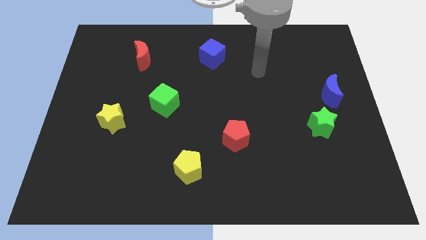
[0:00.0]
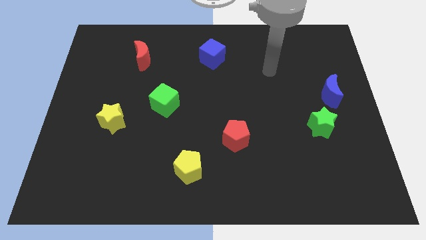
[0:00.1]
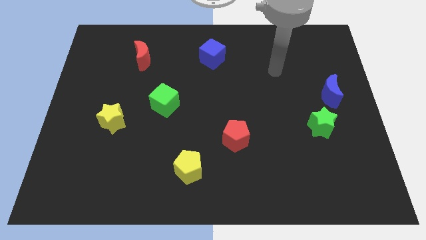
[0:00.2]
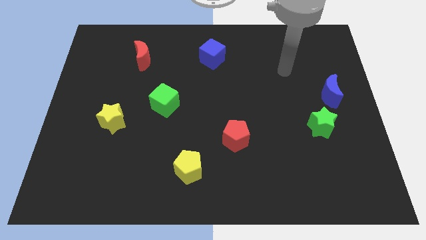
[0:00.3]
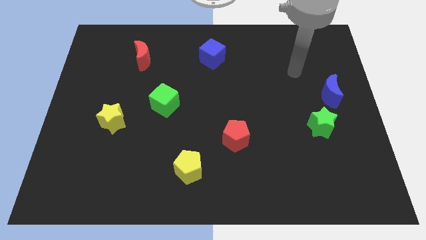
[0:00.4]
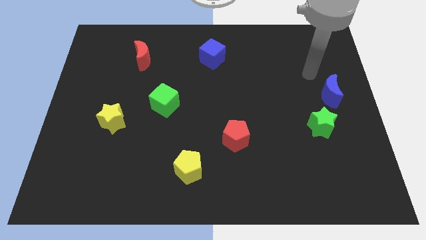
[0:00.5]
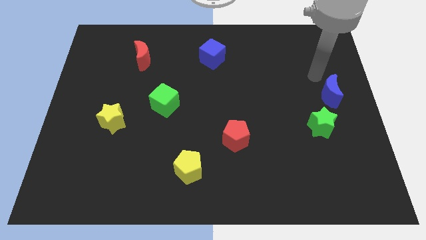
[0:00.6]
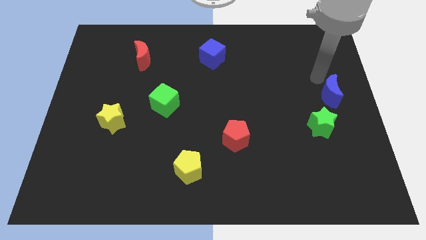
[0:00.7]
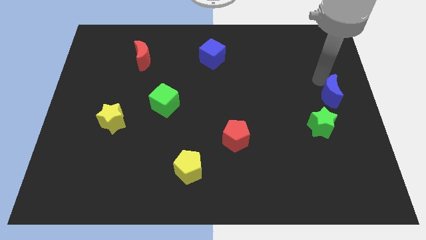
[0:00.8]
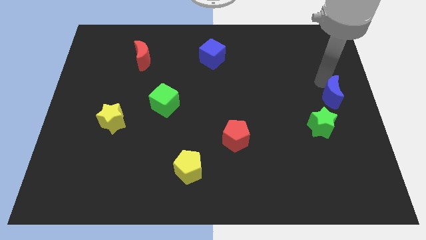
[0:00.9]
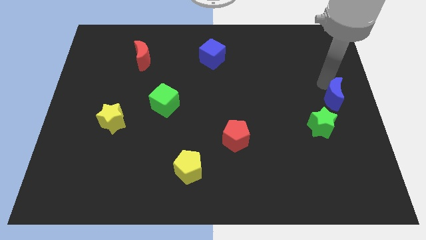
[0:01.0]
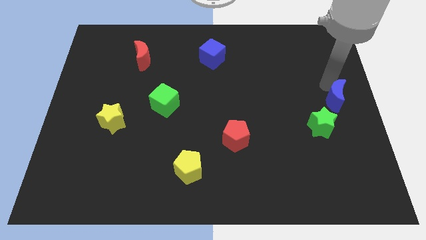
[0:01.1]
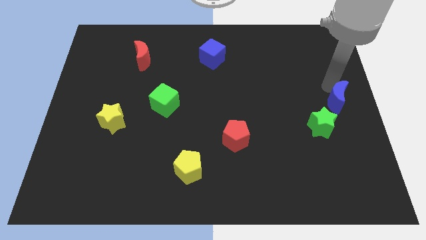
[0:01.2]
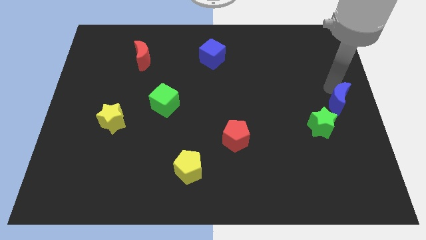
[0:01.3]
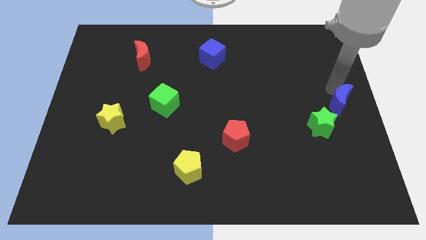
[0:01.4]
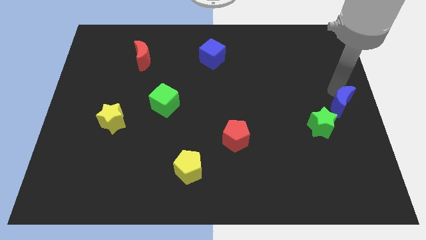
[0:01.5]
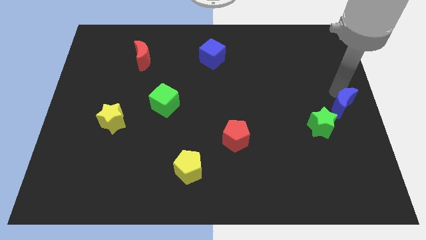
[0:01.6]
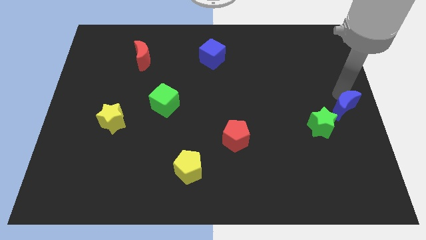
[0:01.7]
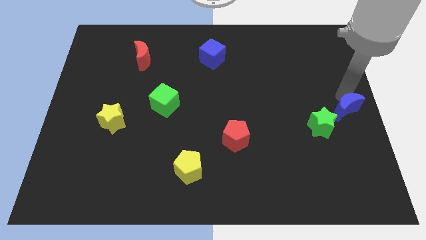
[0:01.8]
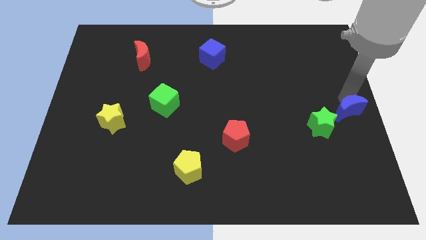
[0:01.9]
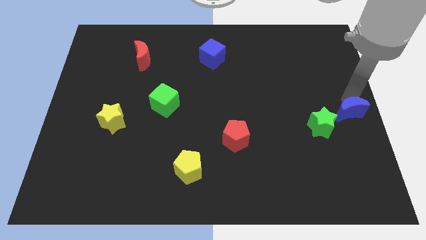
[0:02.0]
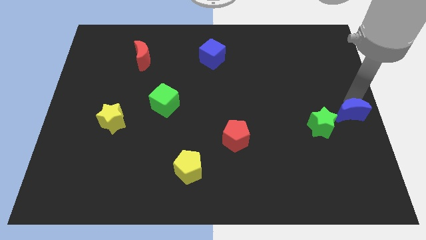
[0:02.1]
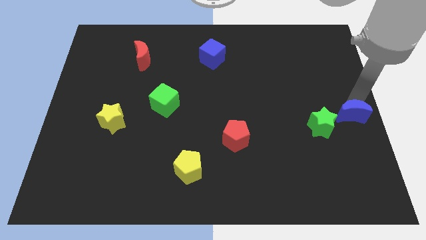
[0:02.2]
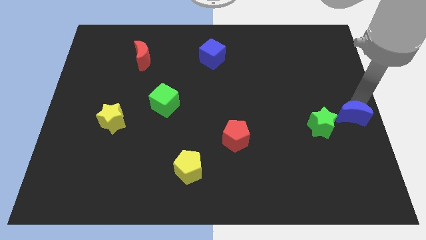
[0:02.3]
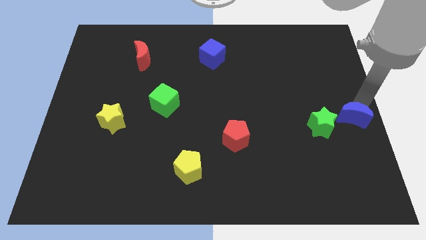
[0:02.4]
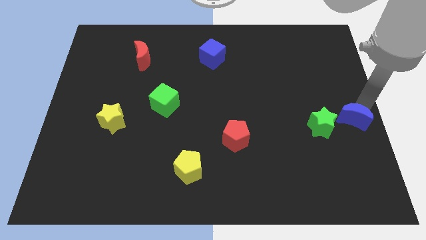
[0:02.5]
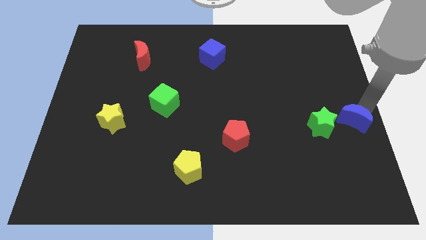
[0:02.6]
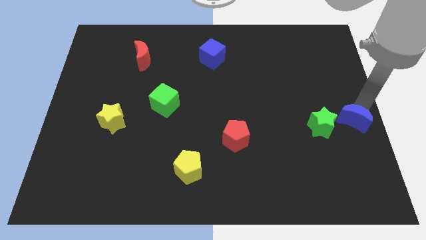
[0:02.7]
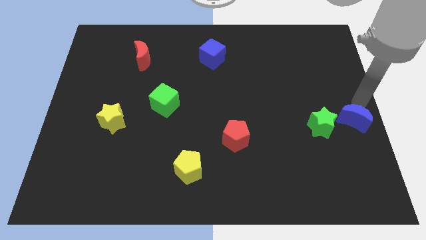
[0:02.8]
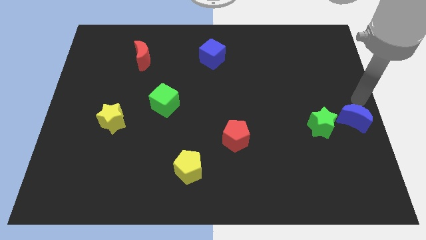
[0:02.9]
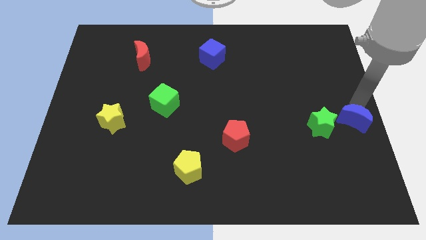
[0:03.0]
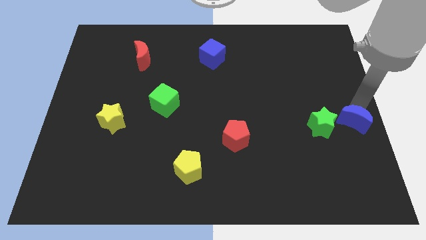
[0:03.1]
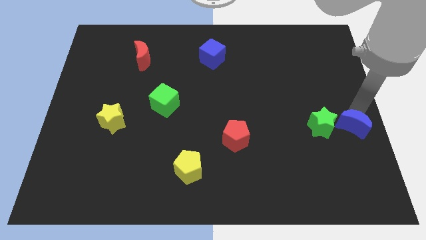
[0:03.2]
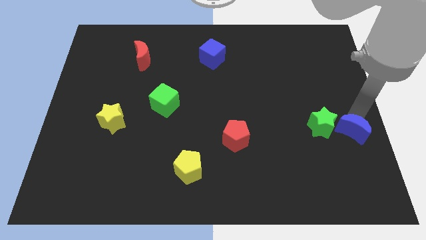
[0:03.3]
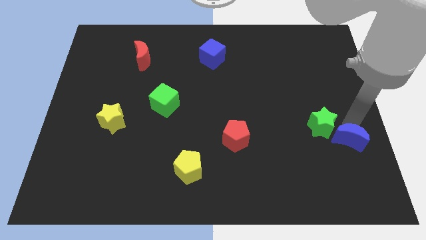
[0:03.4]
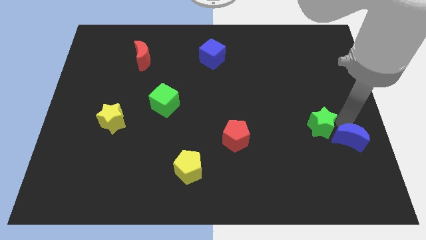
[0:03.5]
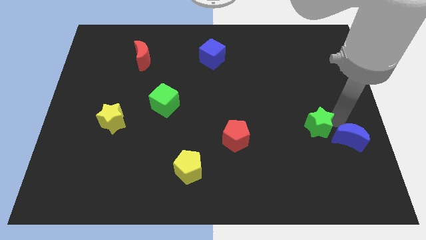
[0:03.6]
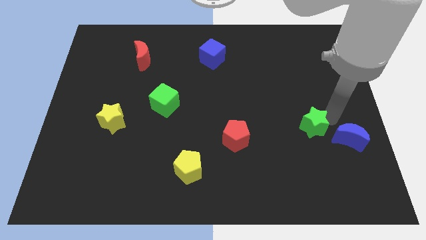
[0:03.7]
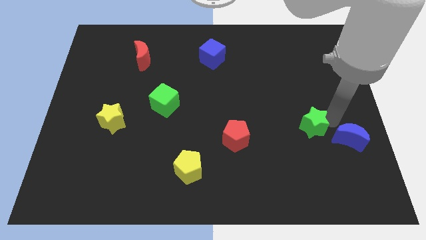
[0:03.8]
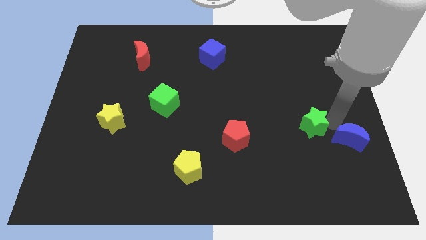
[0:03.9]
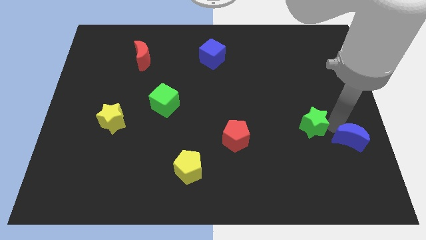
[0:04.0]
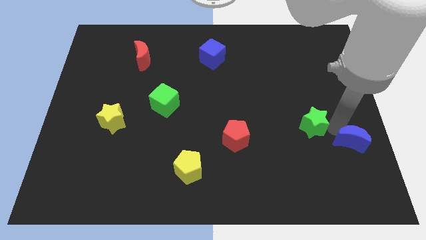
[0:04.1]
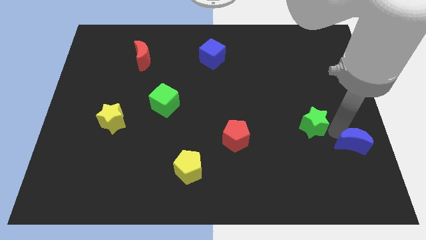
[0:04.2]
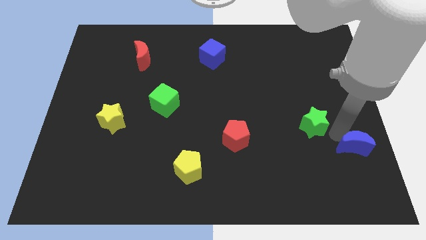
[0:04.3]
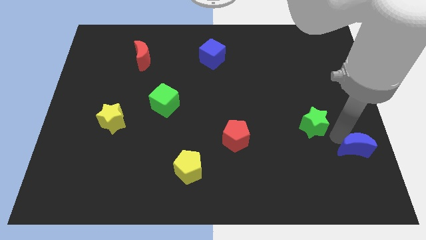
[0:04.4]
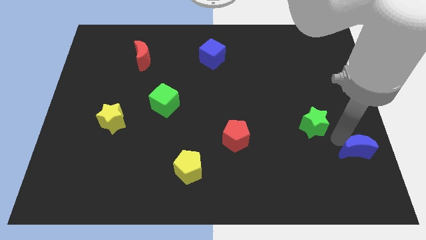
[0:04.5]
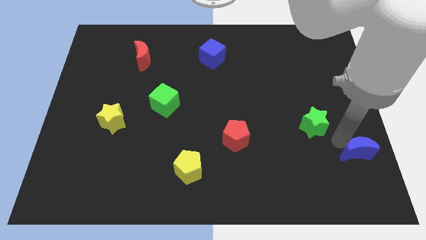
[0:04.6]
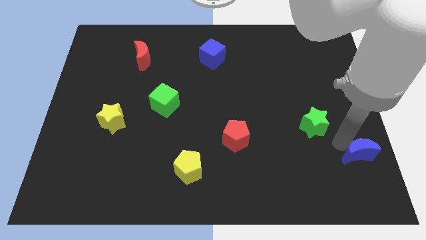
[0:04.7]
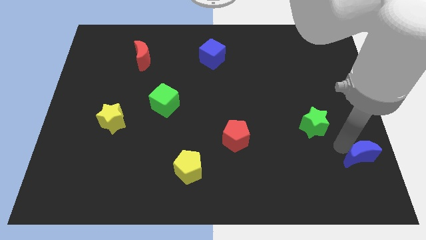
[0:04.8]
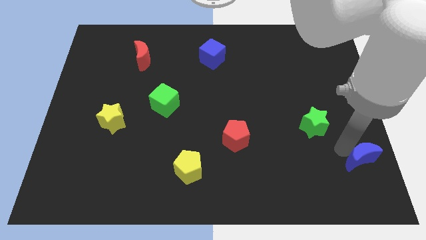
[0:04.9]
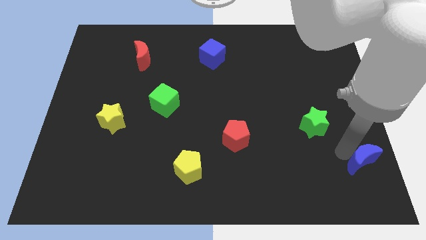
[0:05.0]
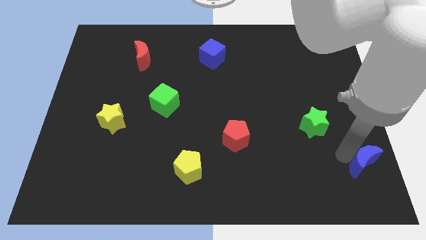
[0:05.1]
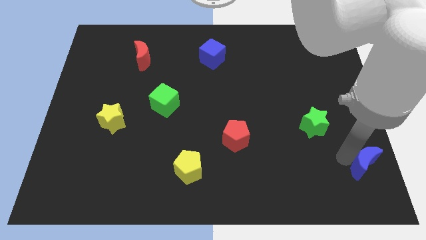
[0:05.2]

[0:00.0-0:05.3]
move the blue moon to the bottom right

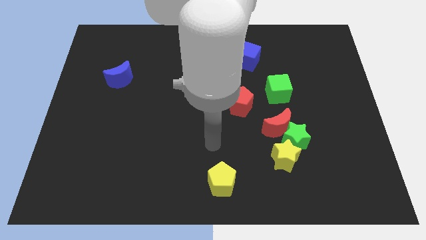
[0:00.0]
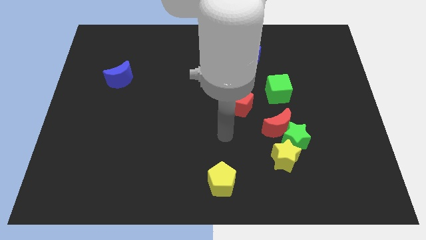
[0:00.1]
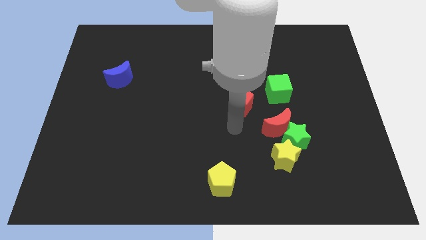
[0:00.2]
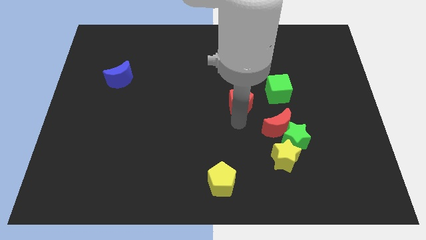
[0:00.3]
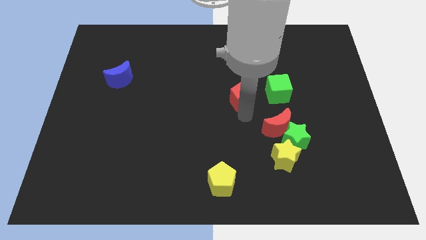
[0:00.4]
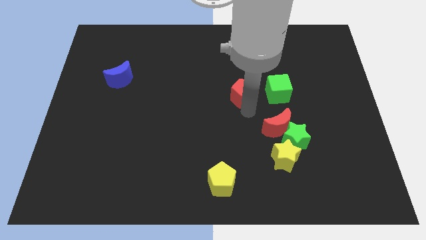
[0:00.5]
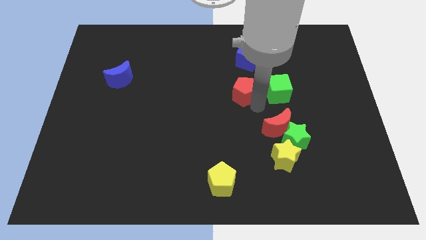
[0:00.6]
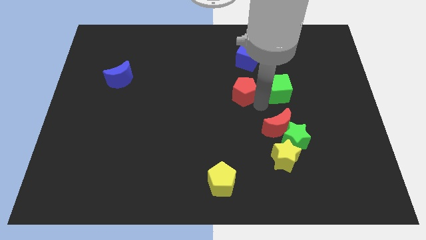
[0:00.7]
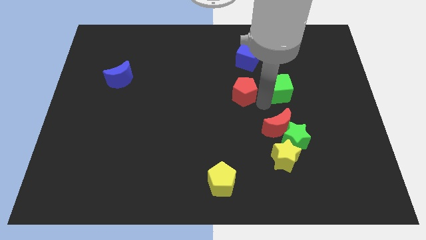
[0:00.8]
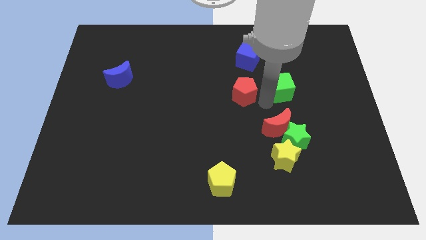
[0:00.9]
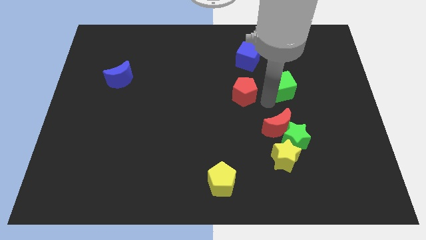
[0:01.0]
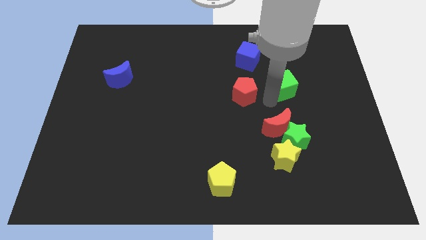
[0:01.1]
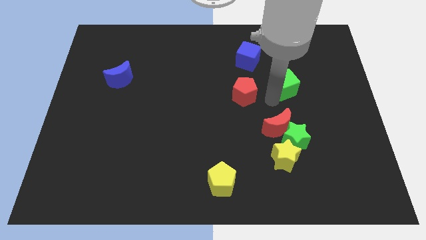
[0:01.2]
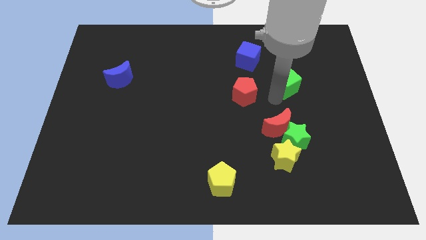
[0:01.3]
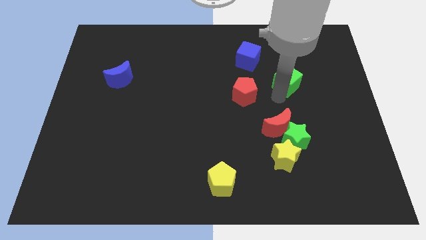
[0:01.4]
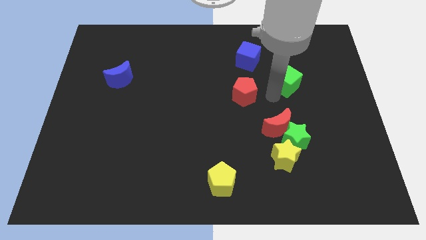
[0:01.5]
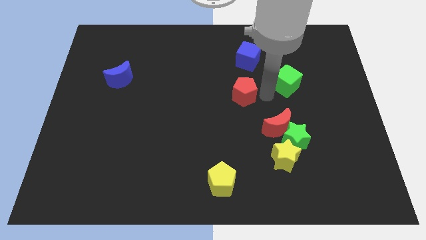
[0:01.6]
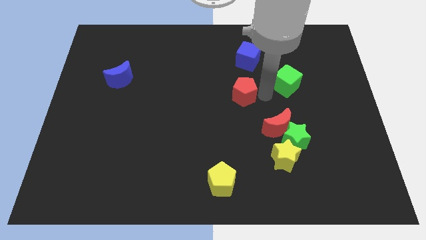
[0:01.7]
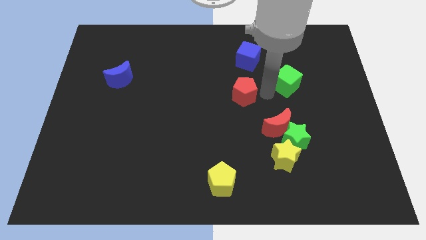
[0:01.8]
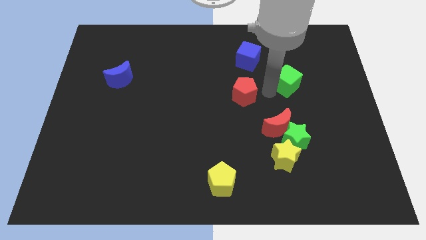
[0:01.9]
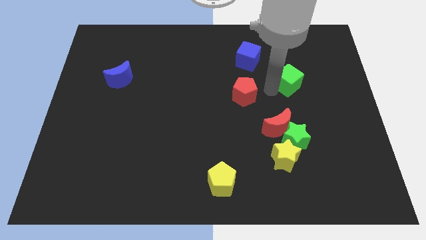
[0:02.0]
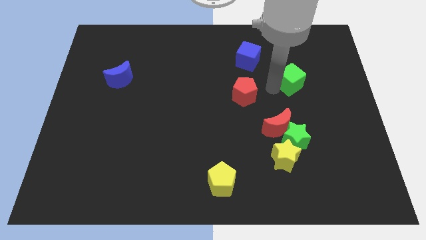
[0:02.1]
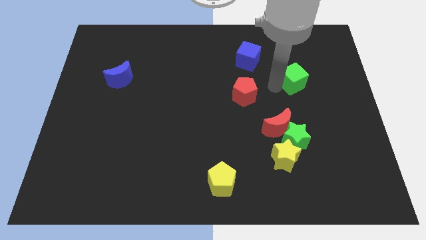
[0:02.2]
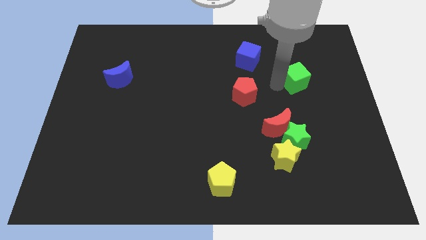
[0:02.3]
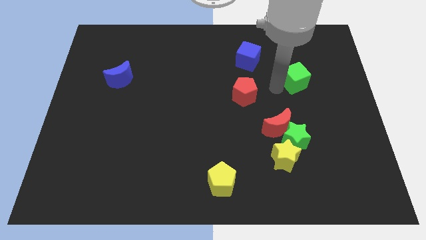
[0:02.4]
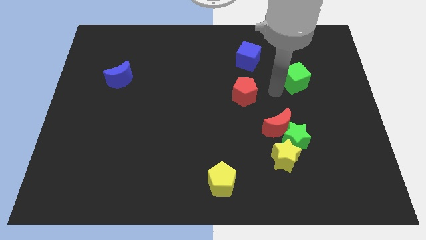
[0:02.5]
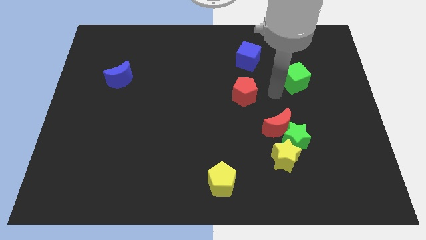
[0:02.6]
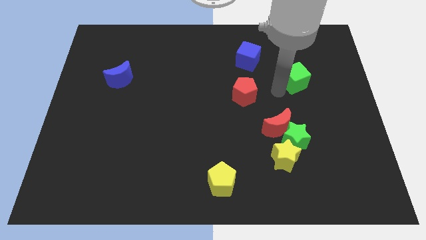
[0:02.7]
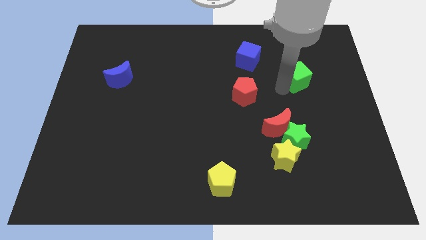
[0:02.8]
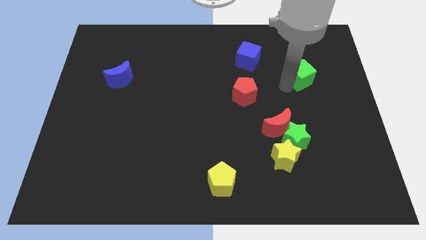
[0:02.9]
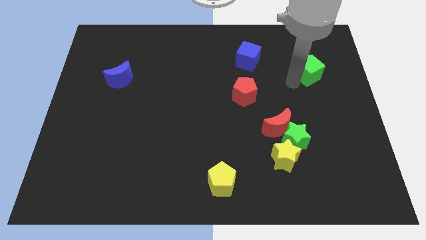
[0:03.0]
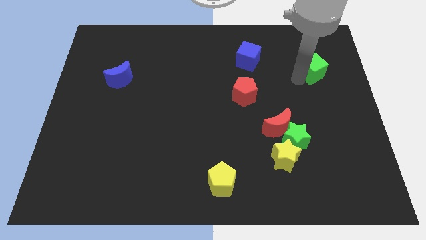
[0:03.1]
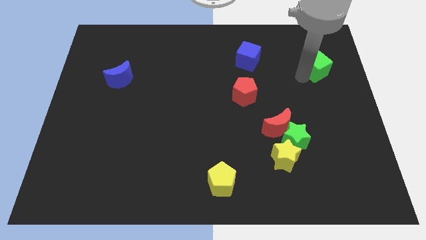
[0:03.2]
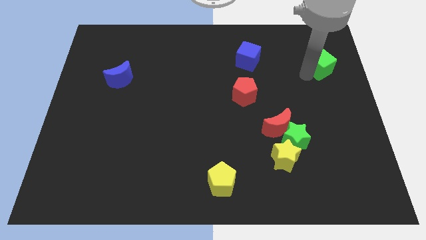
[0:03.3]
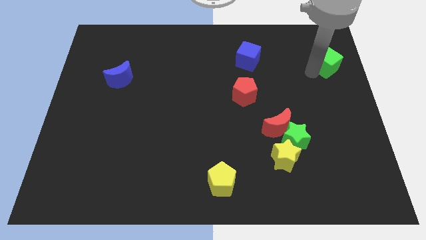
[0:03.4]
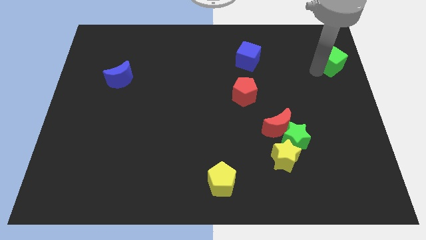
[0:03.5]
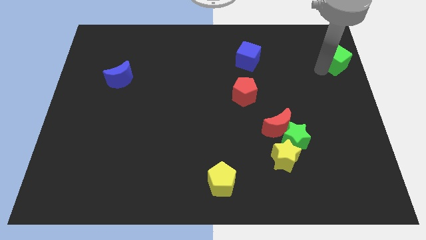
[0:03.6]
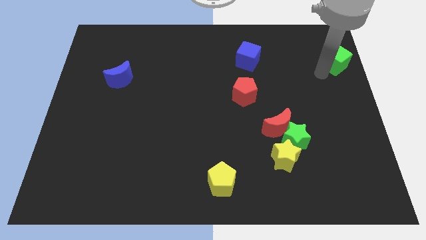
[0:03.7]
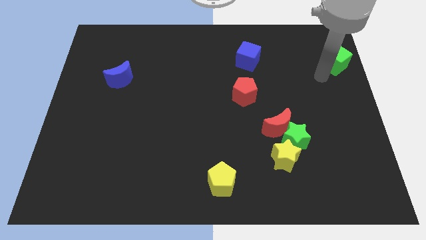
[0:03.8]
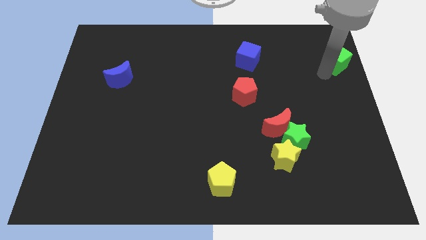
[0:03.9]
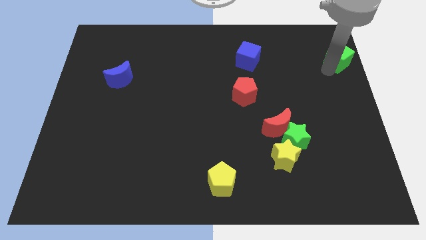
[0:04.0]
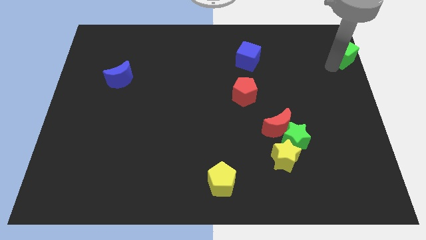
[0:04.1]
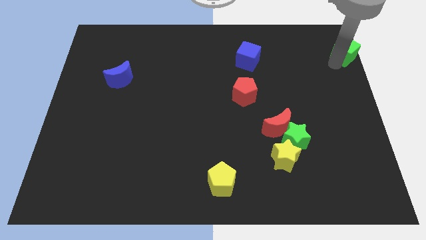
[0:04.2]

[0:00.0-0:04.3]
move the green cube to the top right corner
